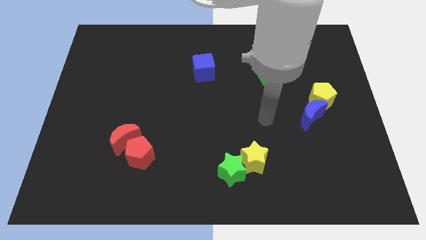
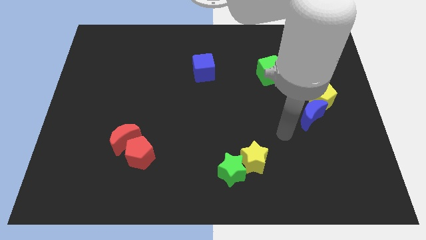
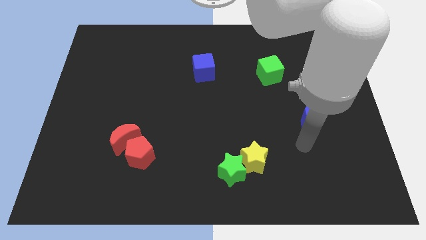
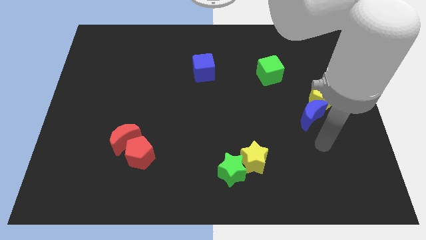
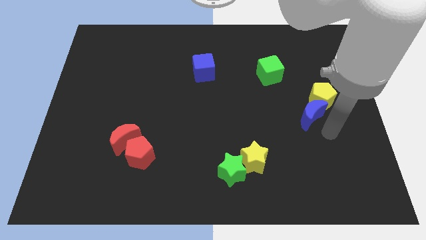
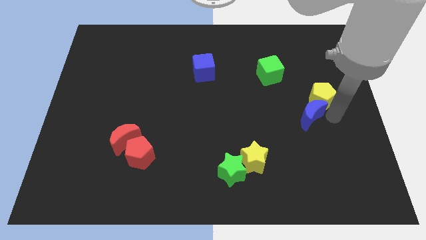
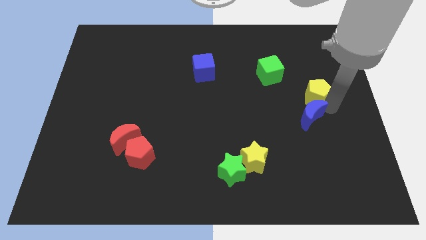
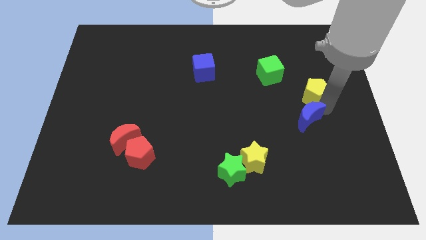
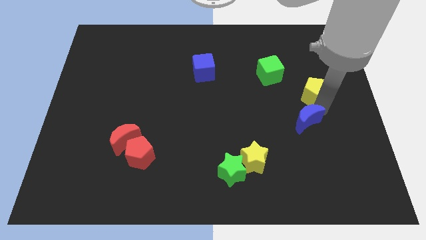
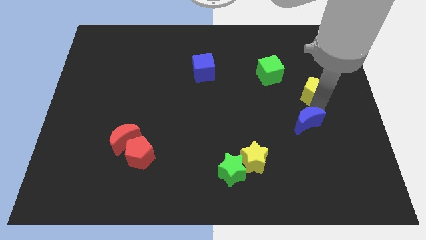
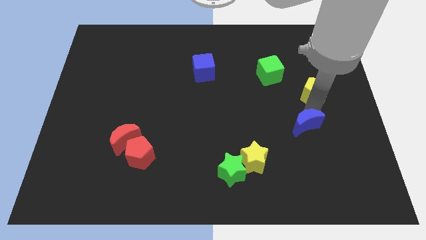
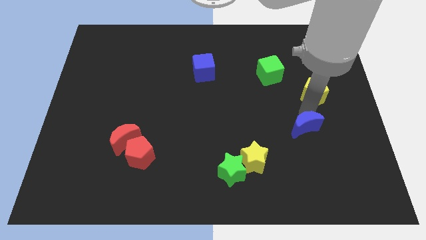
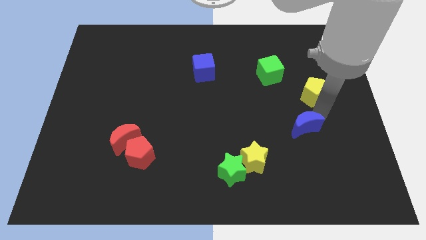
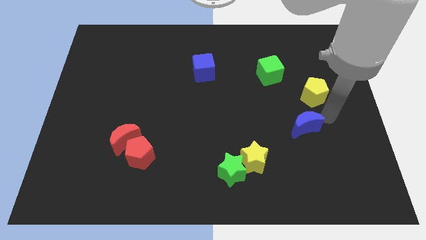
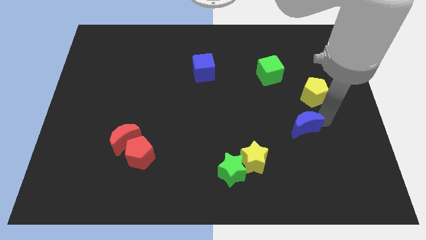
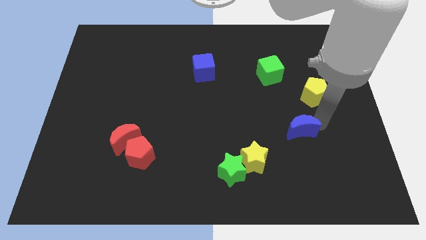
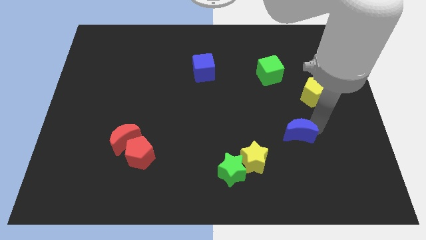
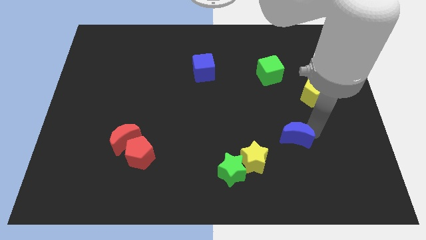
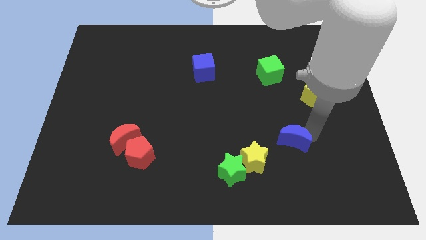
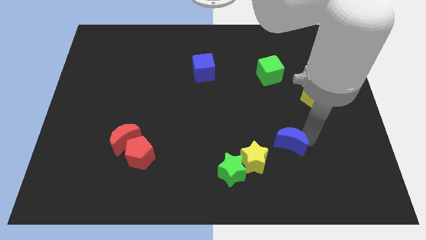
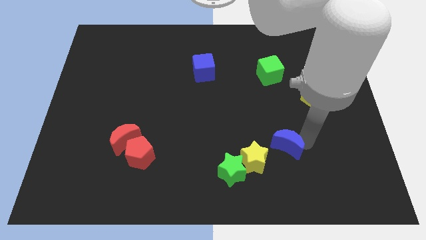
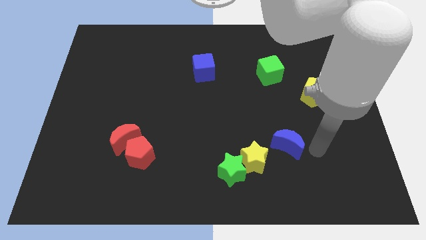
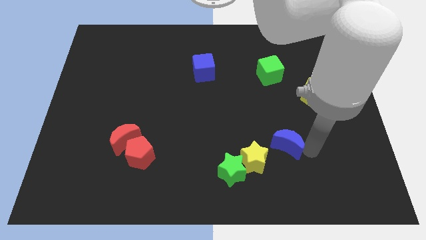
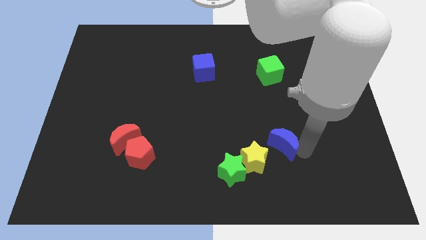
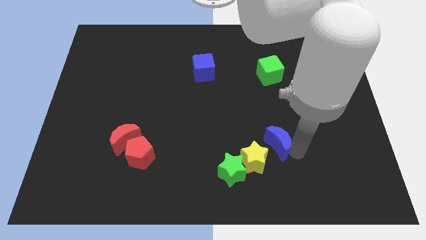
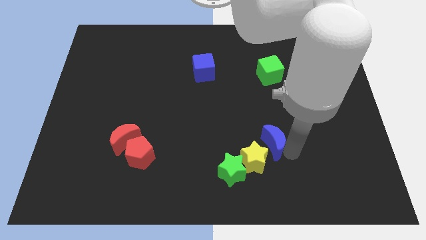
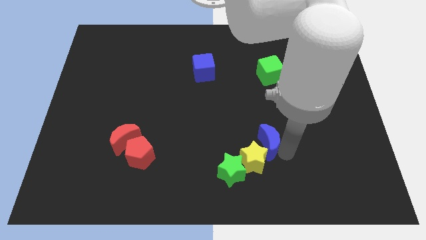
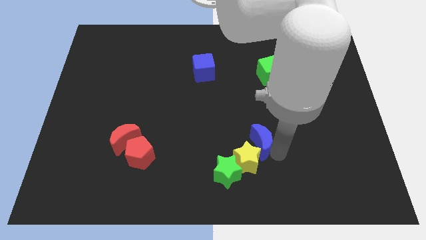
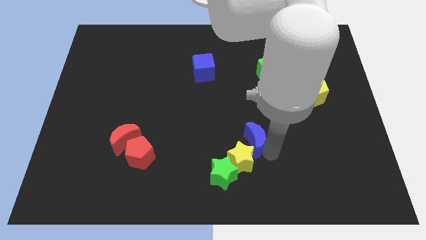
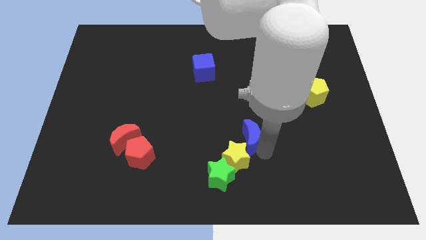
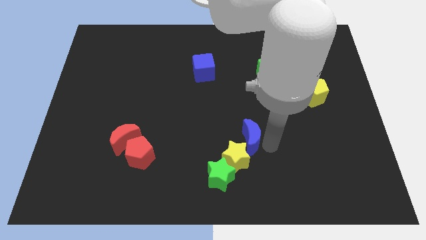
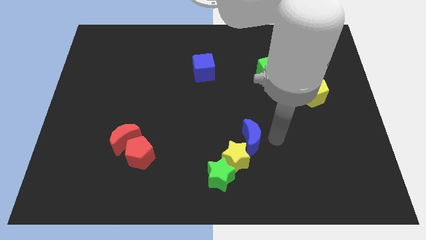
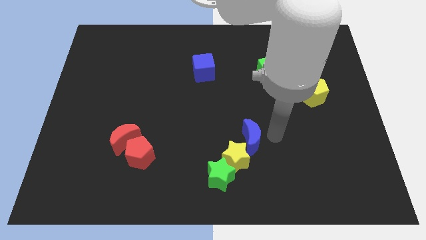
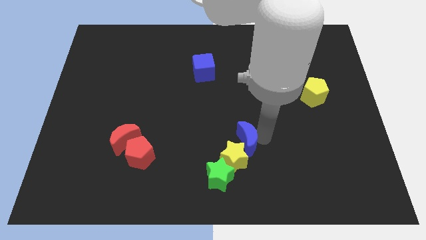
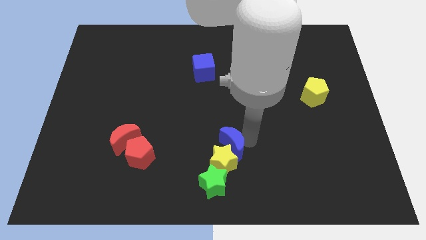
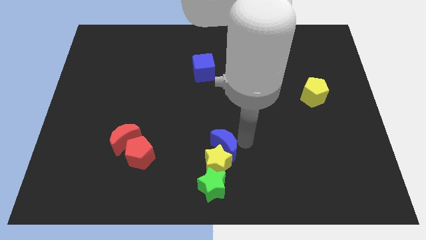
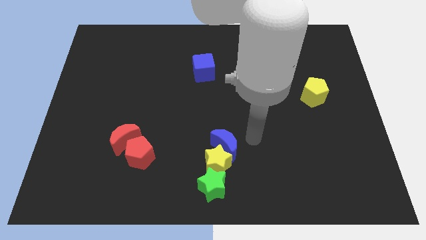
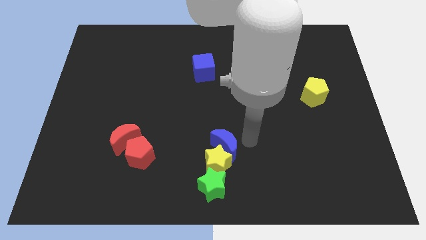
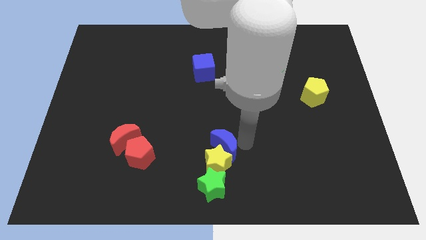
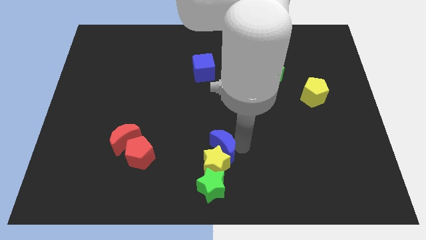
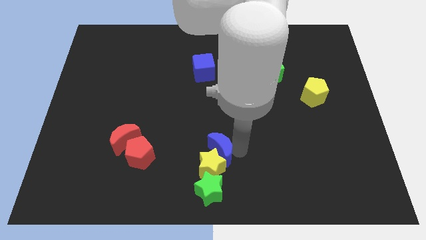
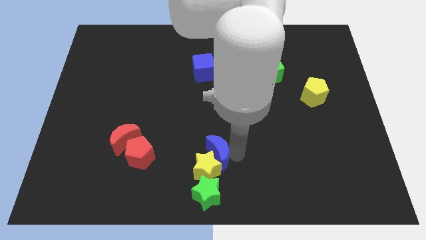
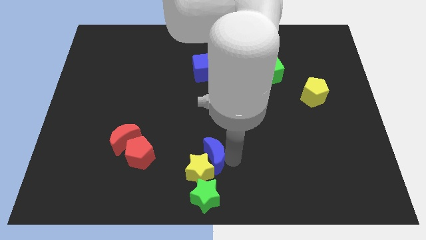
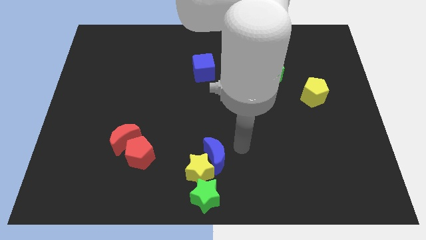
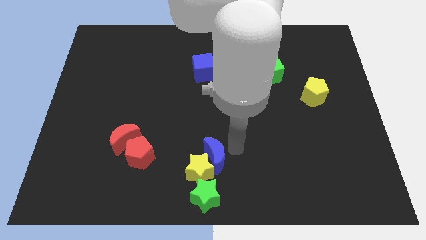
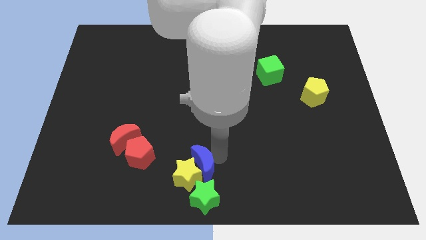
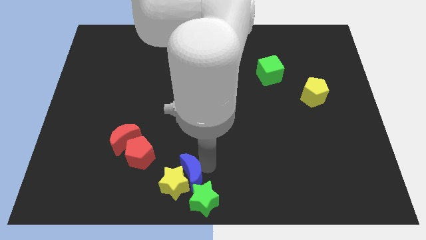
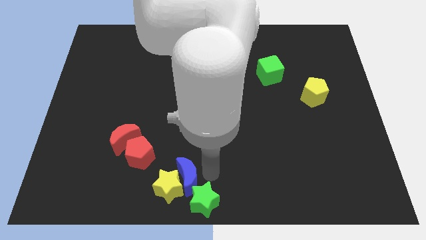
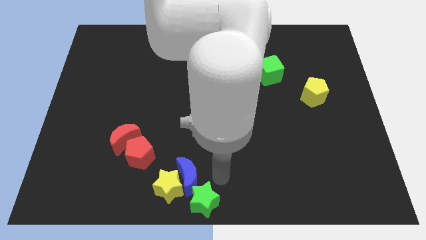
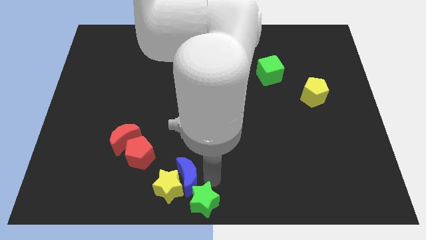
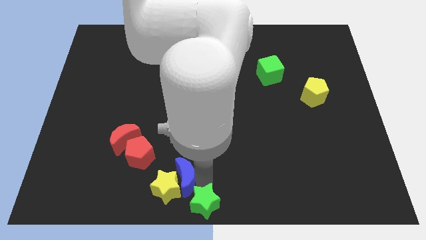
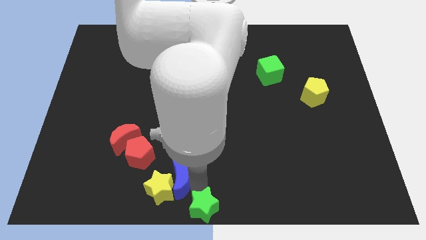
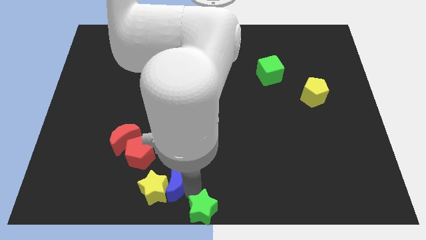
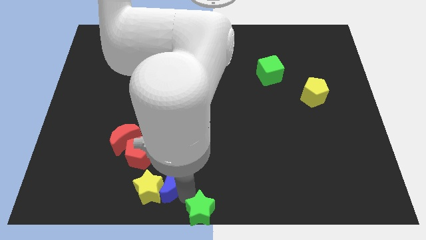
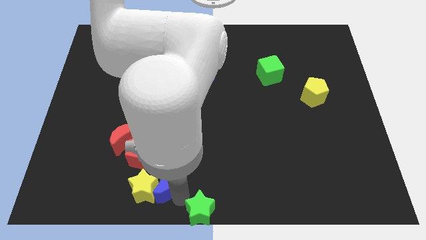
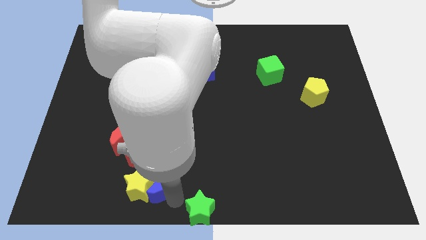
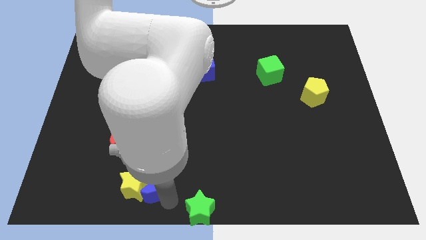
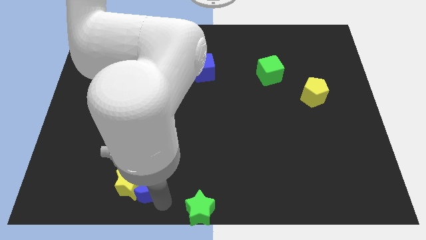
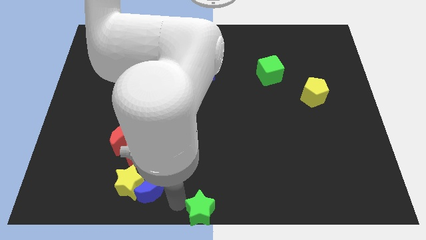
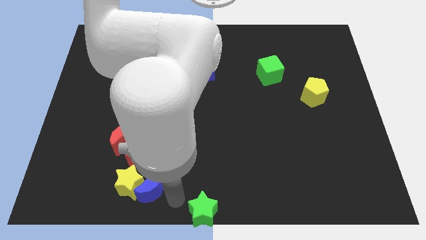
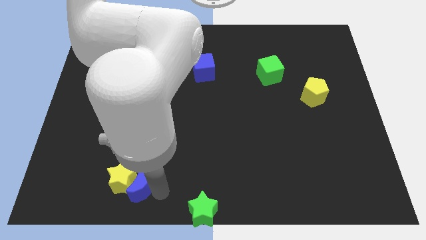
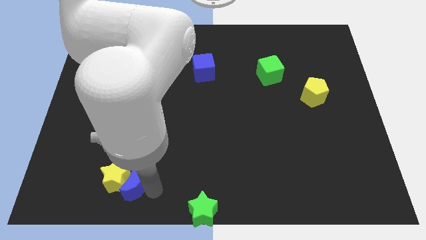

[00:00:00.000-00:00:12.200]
slide the blue moon to the bottom left of the red pentagon

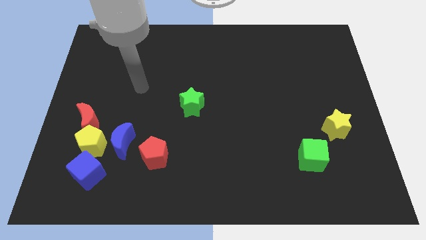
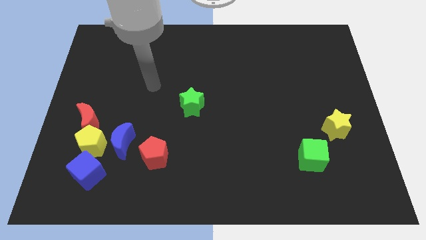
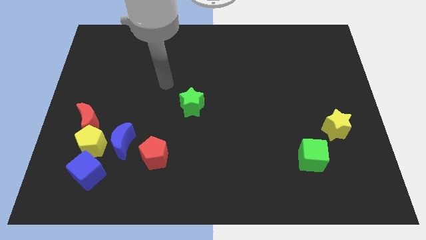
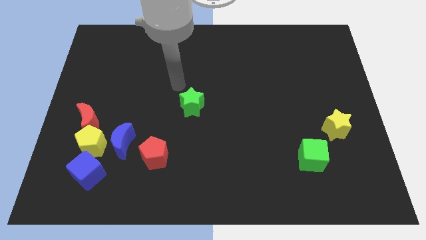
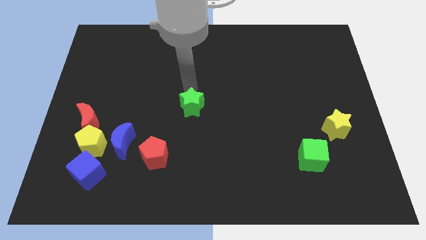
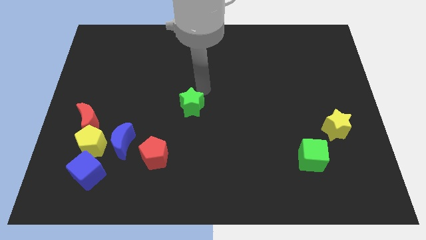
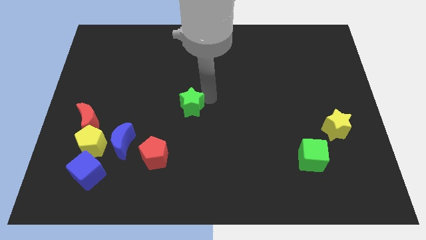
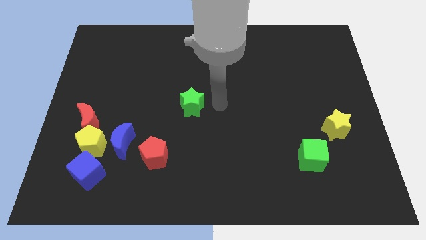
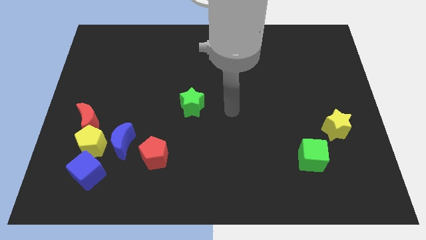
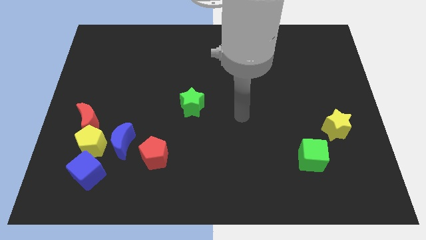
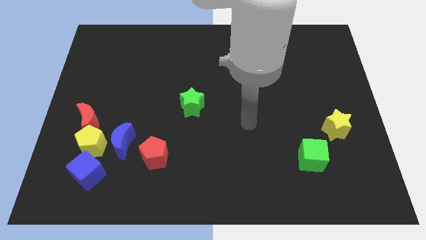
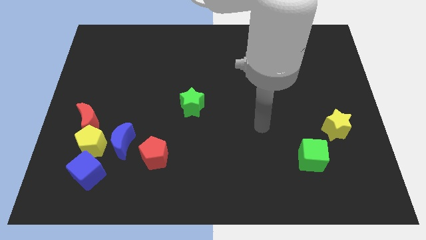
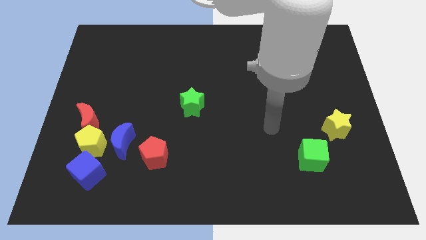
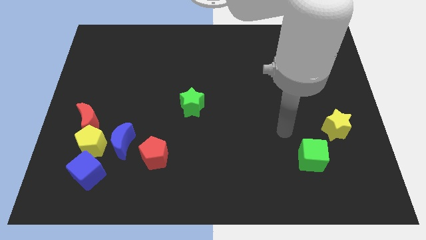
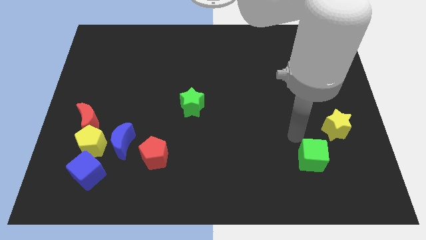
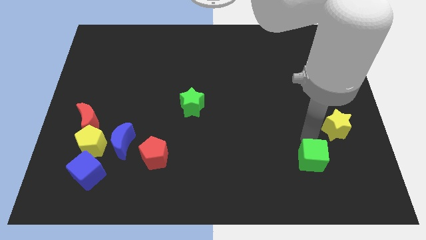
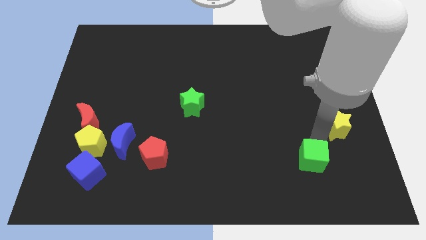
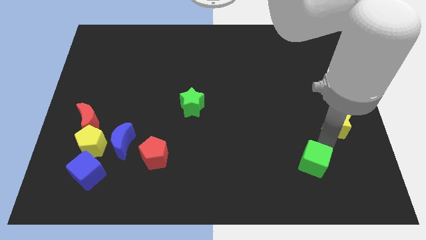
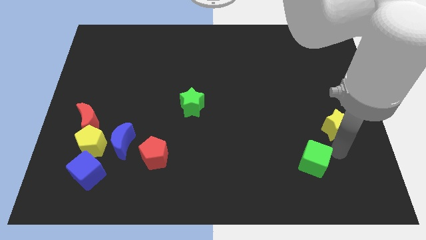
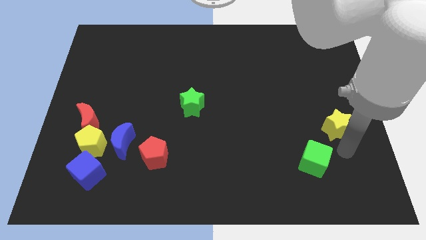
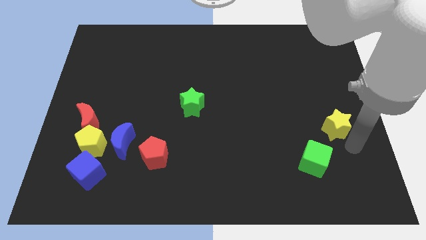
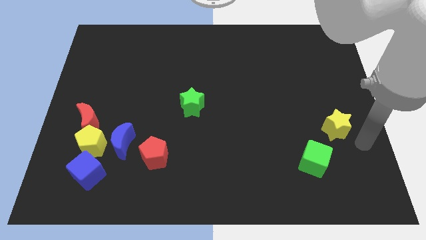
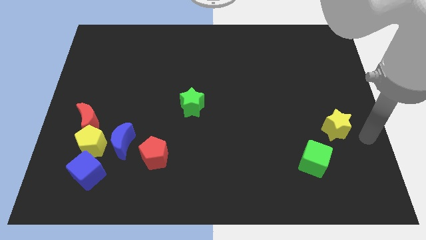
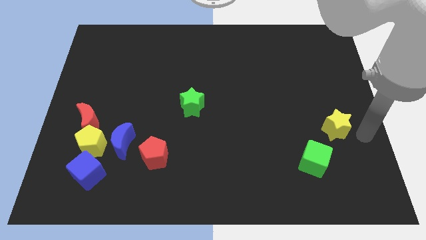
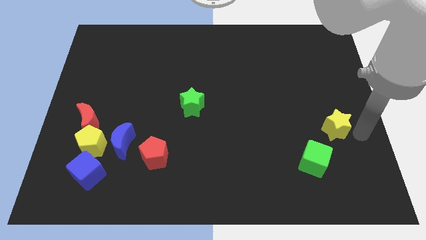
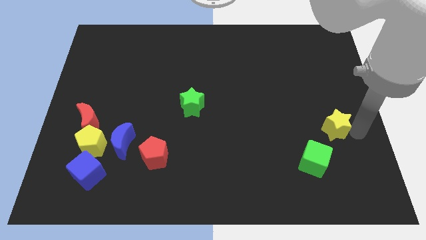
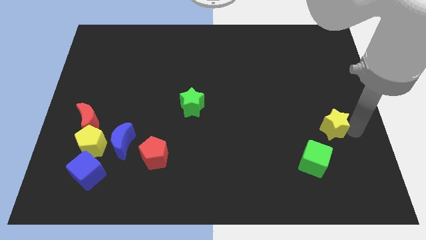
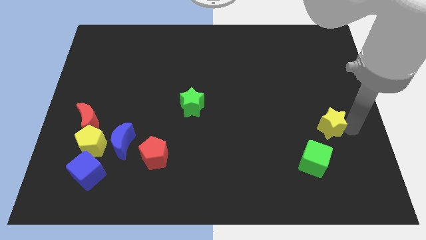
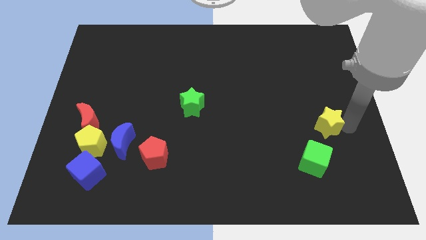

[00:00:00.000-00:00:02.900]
move the yellow star to the top of the green cube
